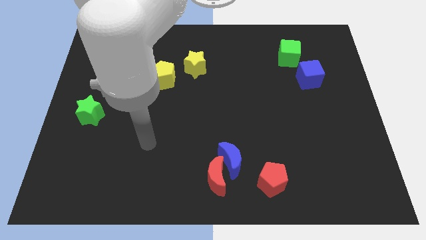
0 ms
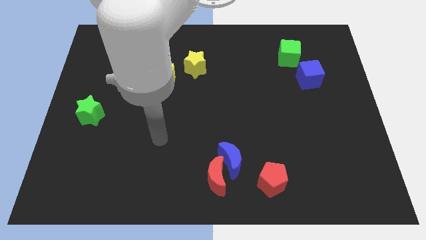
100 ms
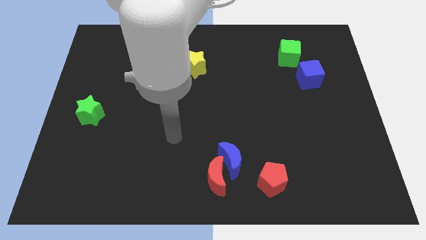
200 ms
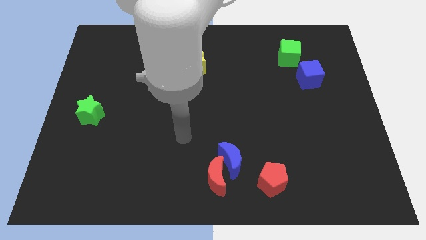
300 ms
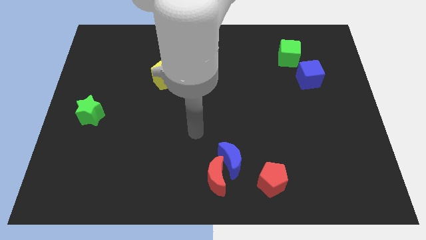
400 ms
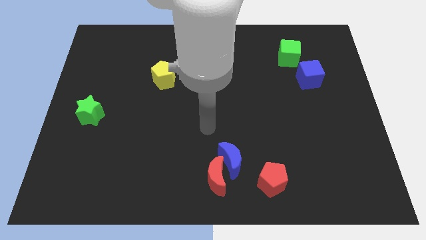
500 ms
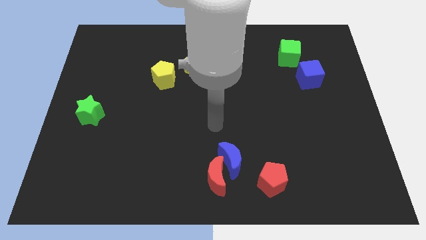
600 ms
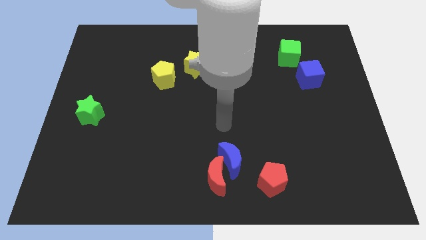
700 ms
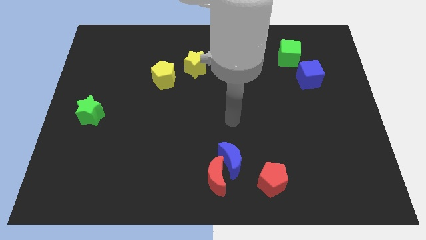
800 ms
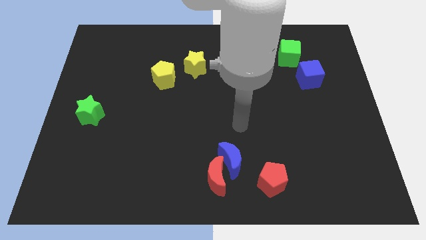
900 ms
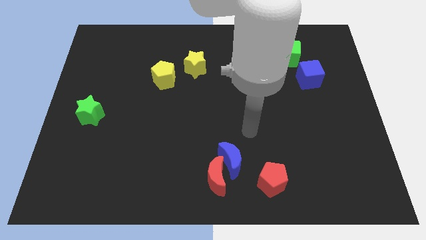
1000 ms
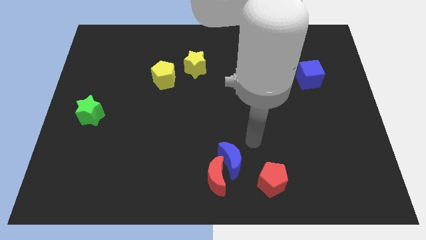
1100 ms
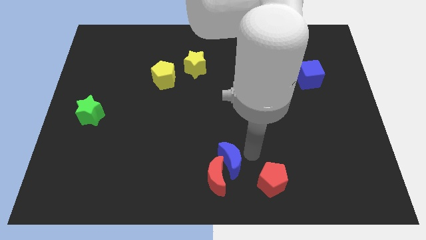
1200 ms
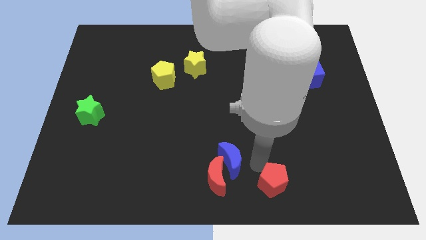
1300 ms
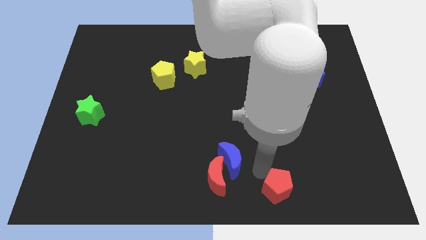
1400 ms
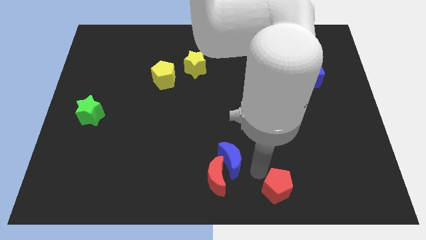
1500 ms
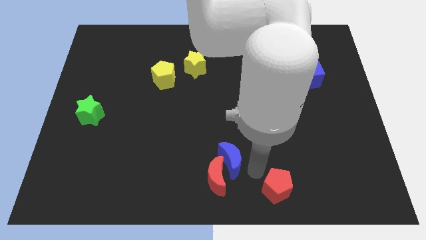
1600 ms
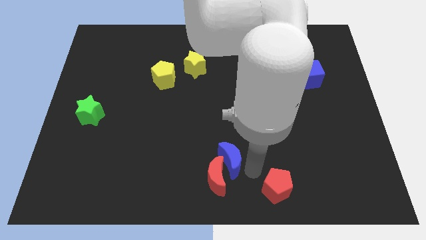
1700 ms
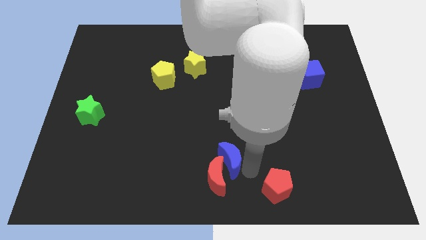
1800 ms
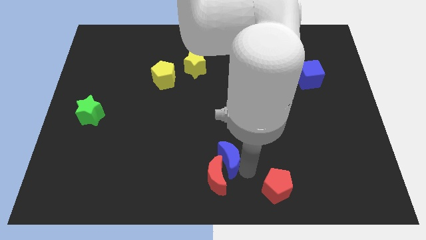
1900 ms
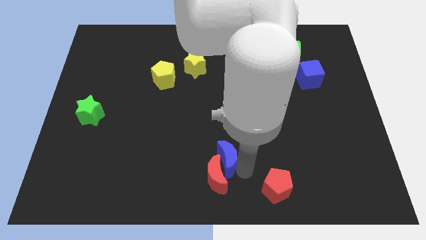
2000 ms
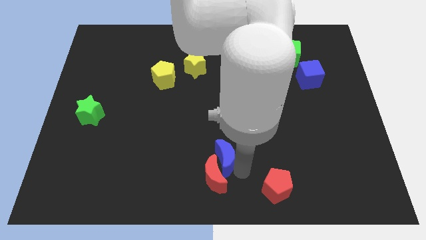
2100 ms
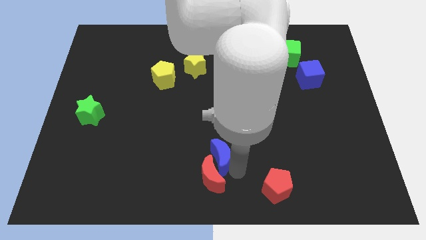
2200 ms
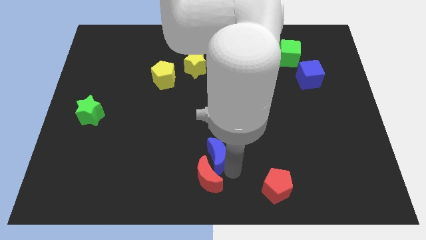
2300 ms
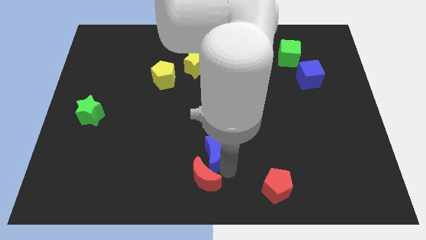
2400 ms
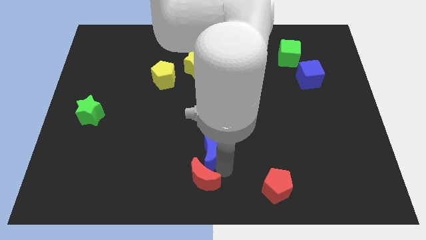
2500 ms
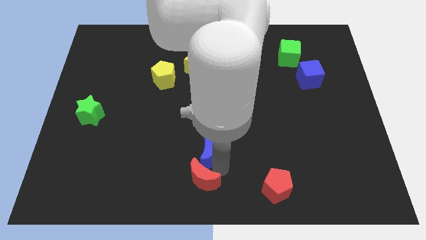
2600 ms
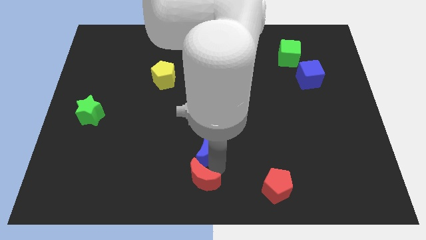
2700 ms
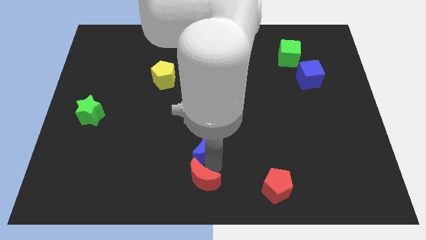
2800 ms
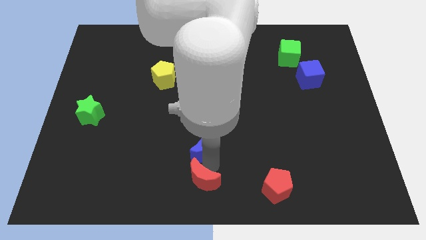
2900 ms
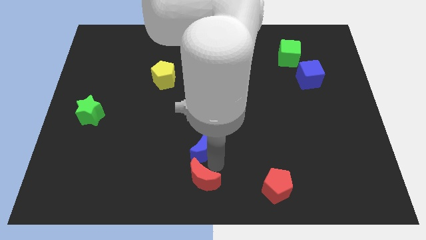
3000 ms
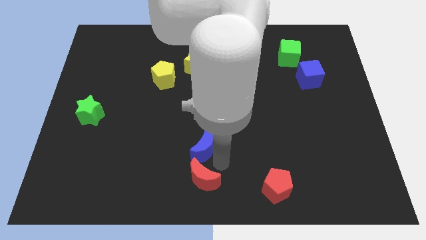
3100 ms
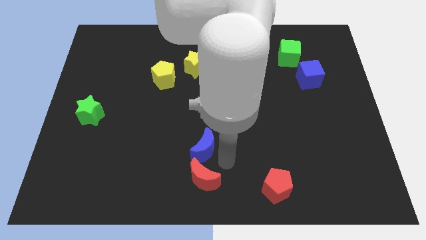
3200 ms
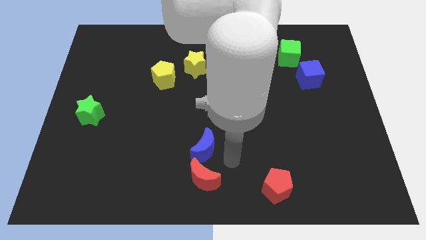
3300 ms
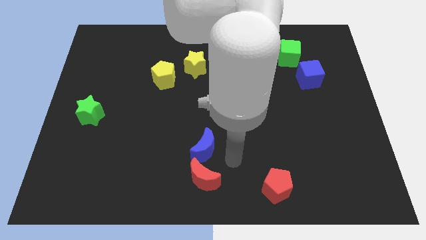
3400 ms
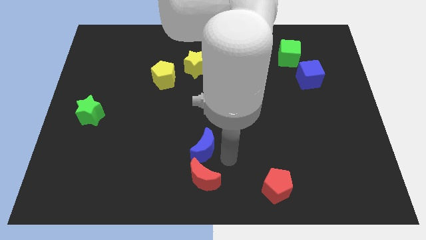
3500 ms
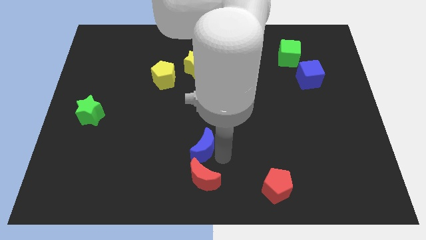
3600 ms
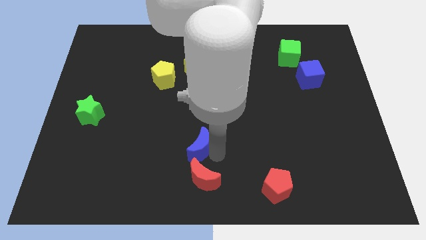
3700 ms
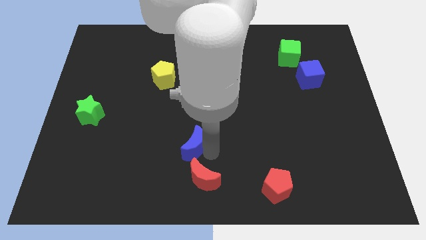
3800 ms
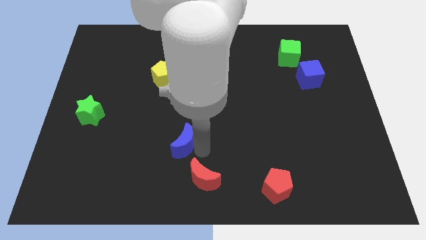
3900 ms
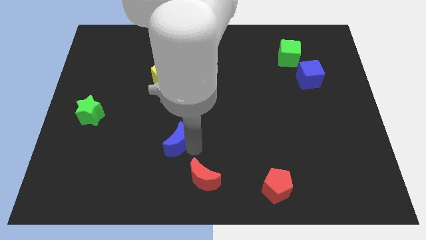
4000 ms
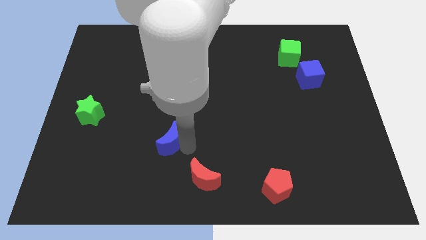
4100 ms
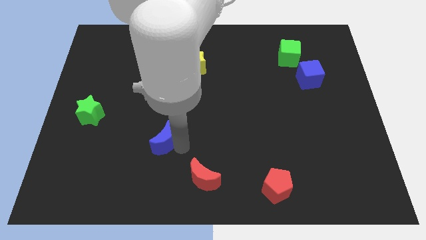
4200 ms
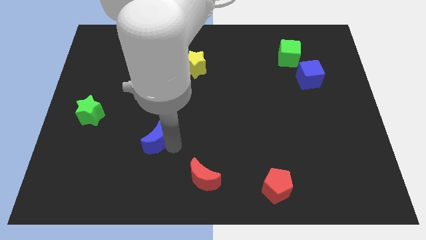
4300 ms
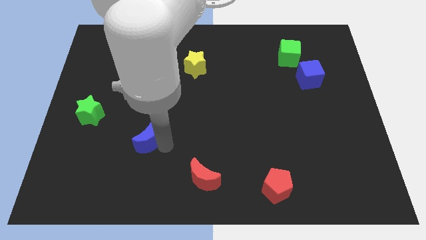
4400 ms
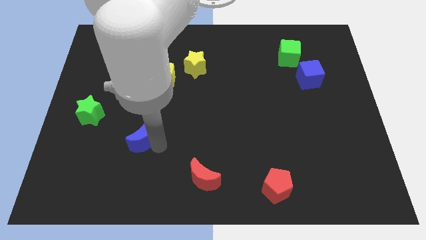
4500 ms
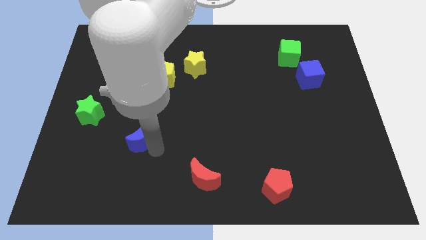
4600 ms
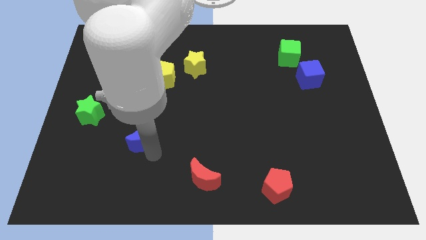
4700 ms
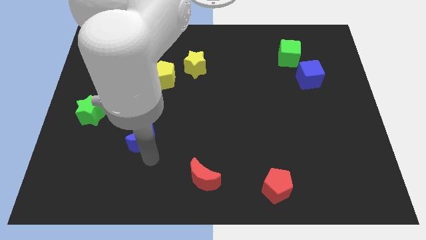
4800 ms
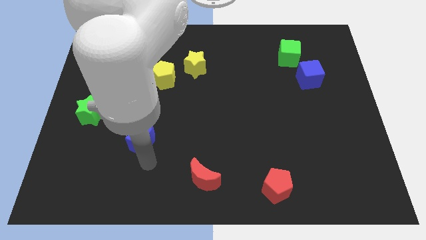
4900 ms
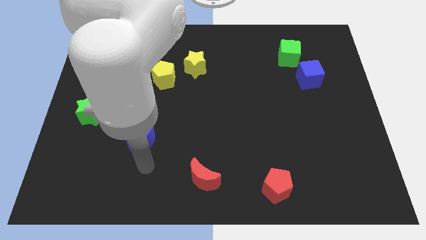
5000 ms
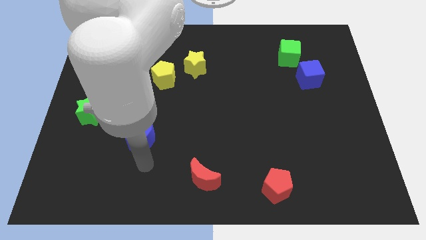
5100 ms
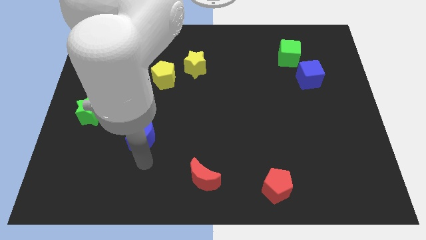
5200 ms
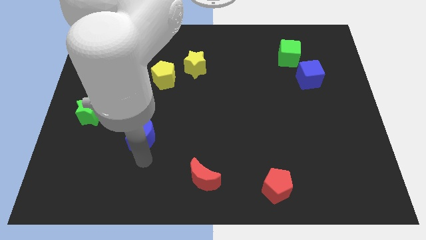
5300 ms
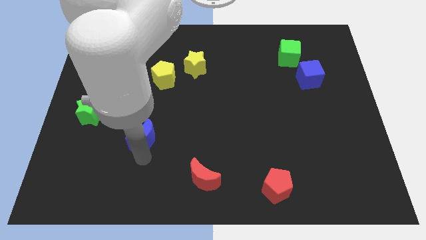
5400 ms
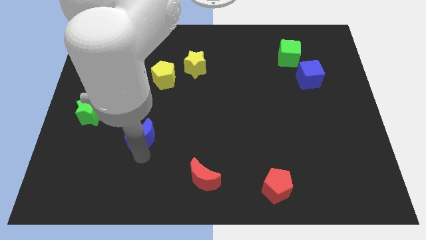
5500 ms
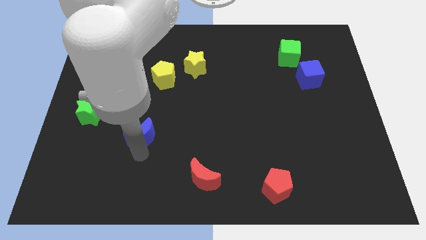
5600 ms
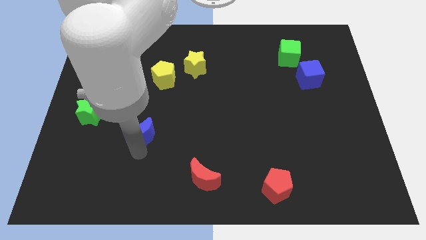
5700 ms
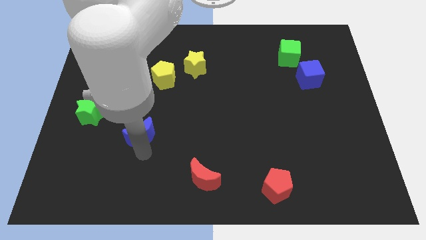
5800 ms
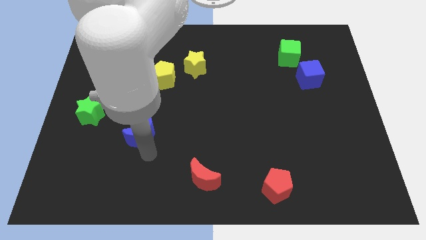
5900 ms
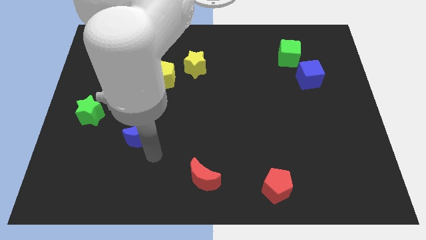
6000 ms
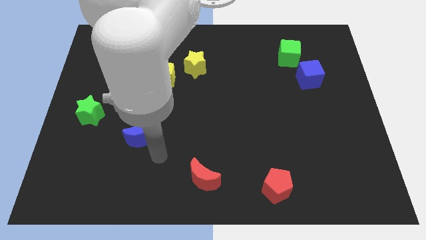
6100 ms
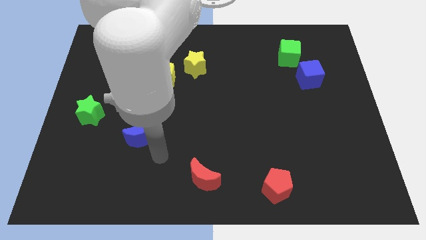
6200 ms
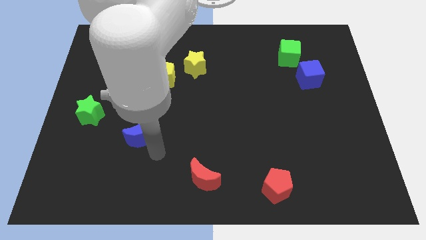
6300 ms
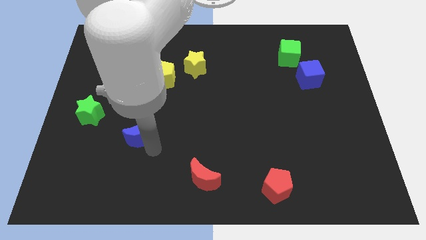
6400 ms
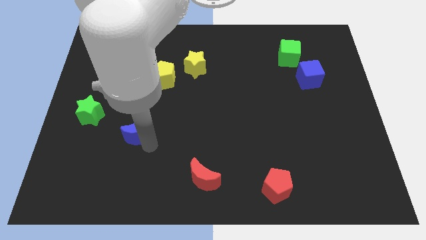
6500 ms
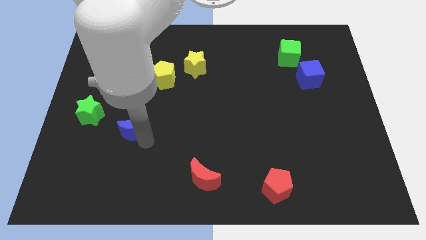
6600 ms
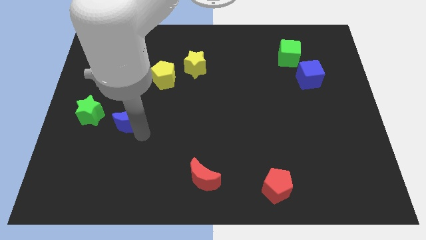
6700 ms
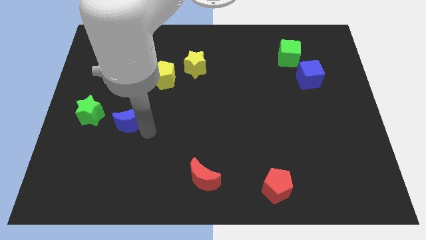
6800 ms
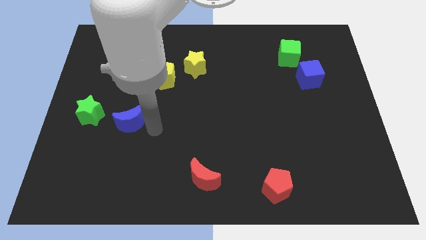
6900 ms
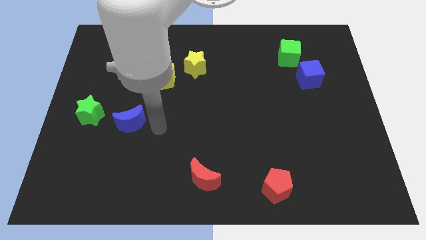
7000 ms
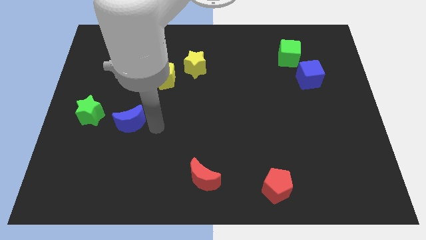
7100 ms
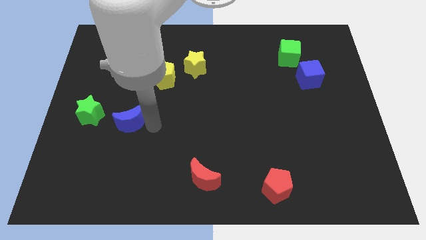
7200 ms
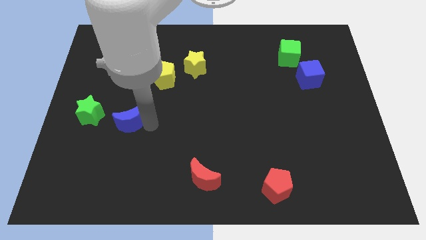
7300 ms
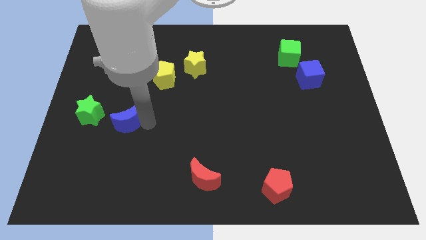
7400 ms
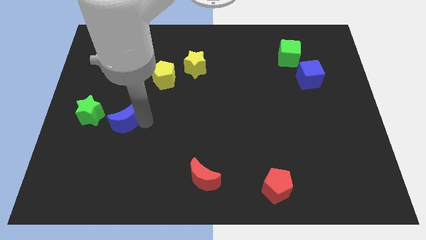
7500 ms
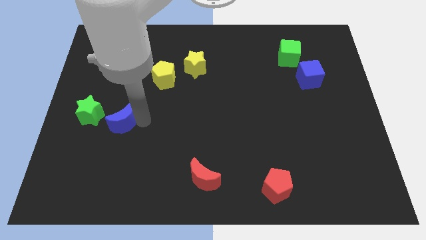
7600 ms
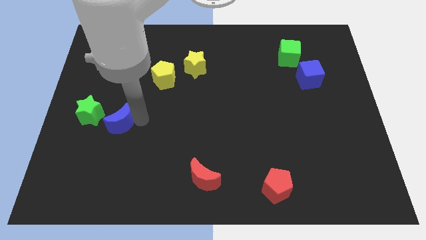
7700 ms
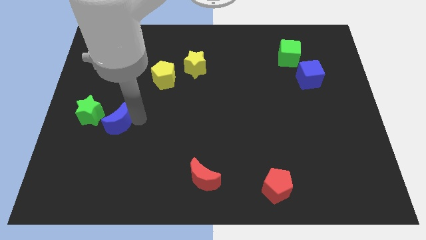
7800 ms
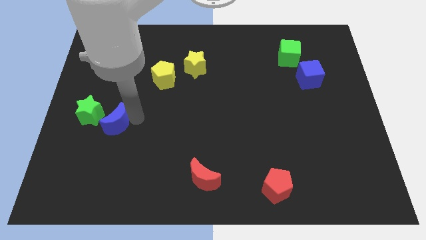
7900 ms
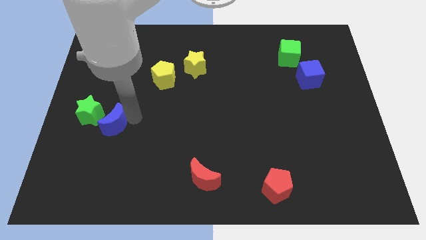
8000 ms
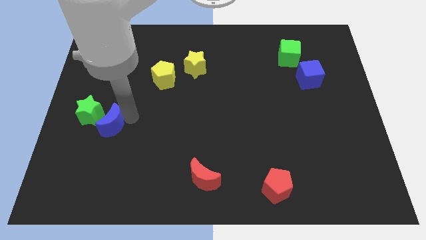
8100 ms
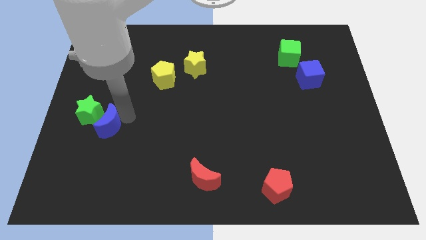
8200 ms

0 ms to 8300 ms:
put the blue moon next to the green star
